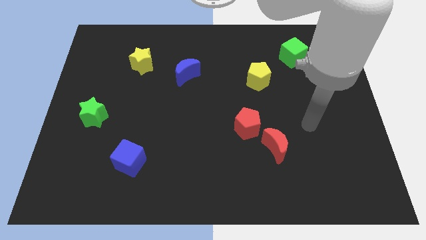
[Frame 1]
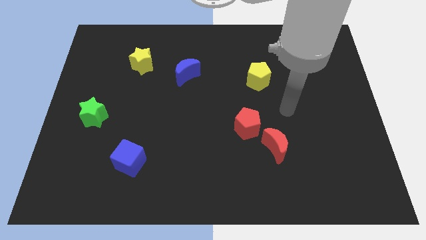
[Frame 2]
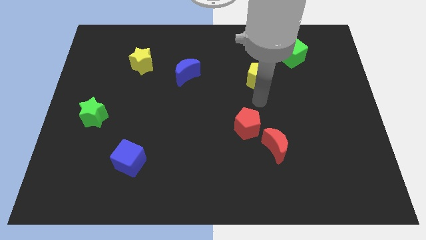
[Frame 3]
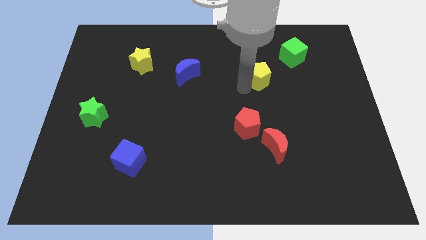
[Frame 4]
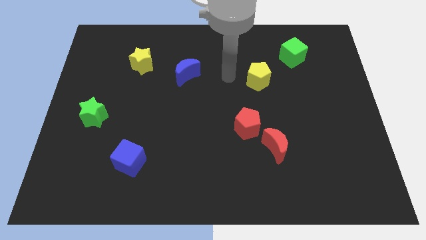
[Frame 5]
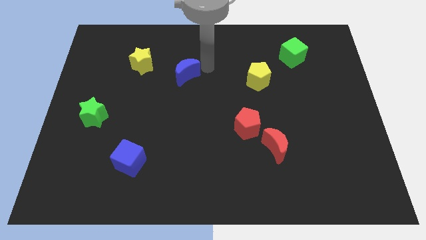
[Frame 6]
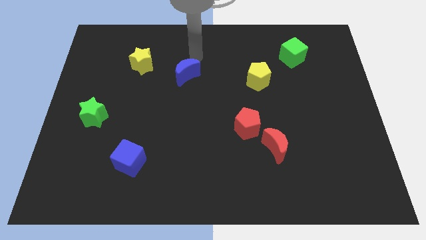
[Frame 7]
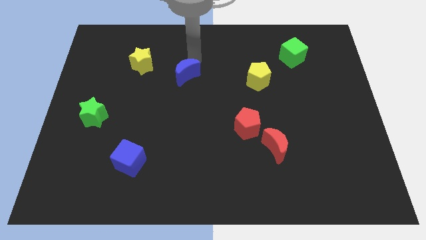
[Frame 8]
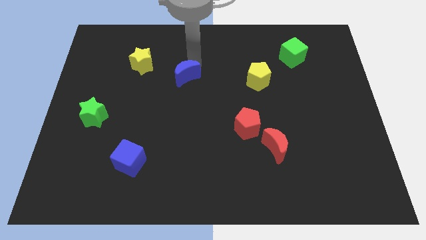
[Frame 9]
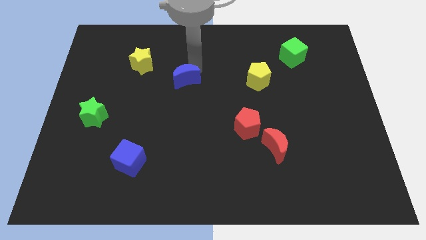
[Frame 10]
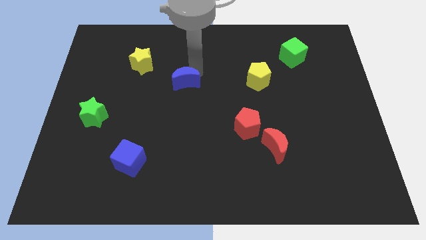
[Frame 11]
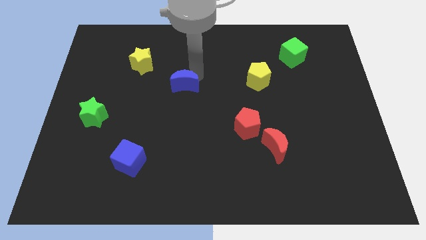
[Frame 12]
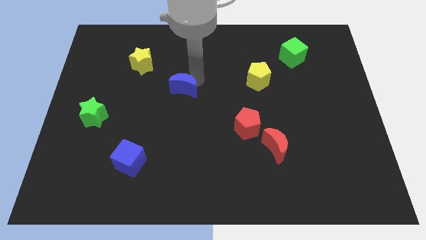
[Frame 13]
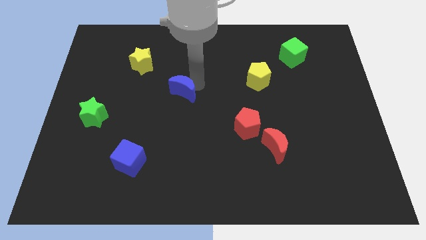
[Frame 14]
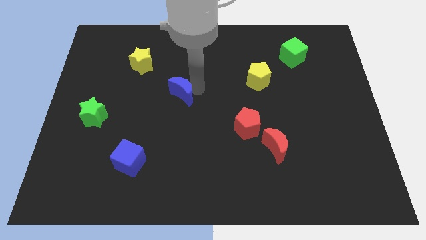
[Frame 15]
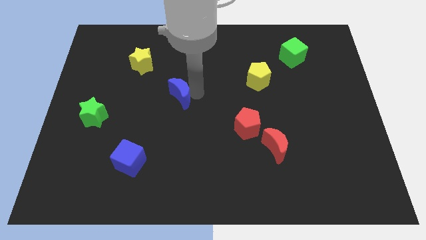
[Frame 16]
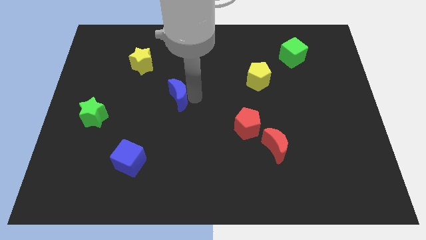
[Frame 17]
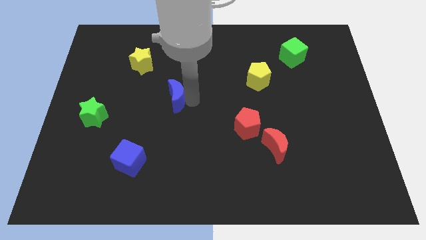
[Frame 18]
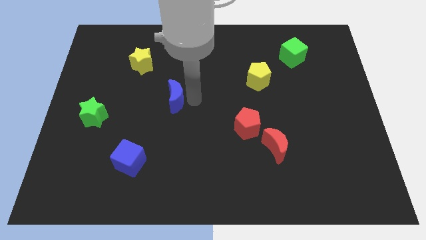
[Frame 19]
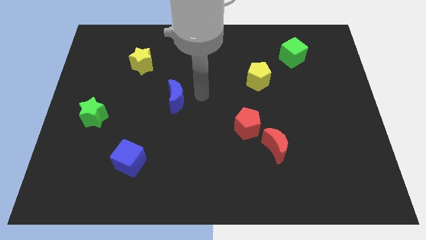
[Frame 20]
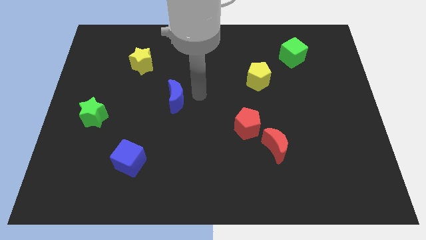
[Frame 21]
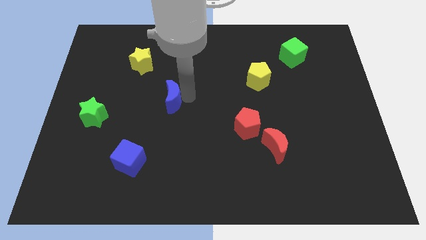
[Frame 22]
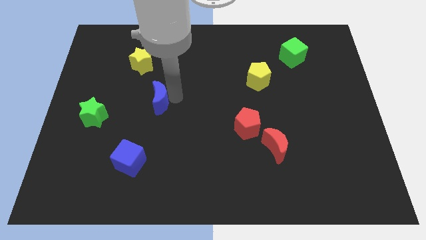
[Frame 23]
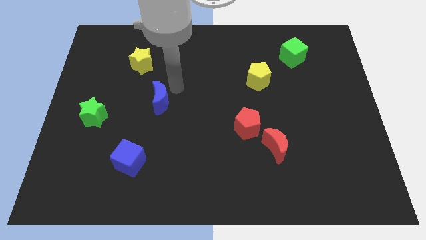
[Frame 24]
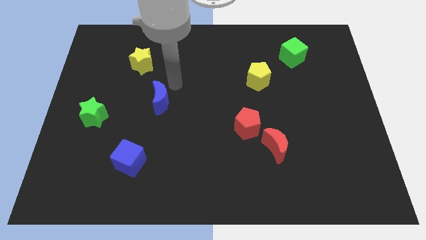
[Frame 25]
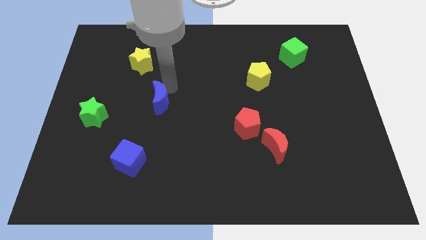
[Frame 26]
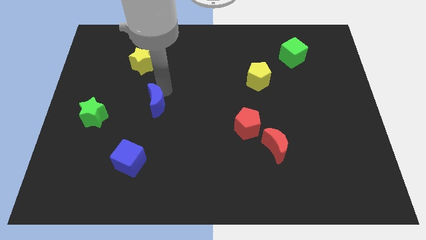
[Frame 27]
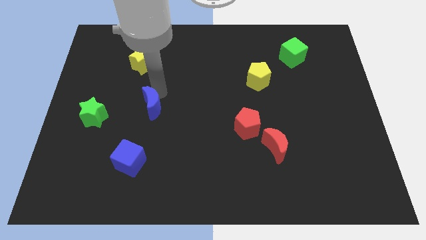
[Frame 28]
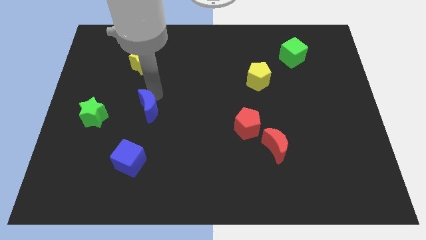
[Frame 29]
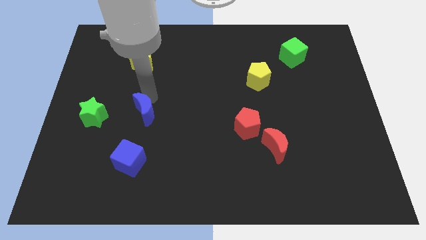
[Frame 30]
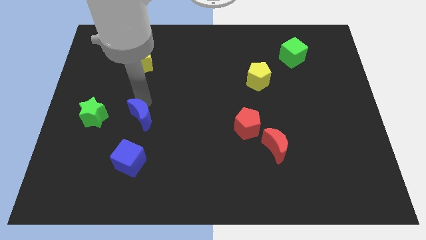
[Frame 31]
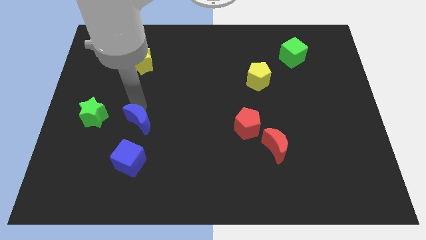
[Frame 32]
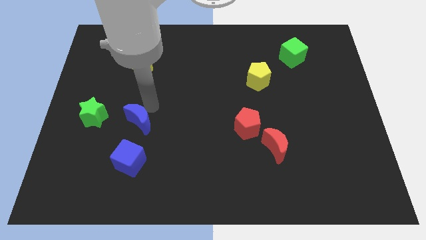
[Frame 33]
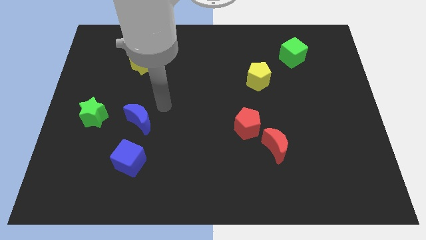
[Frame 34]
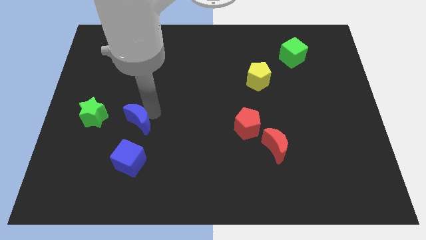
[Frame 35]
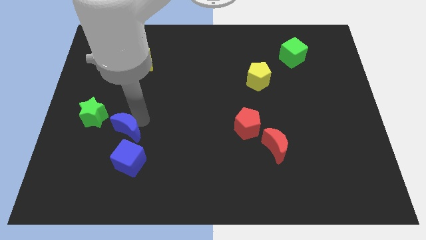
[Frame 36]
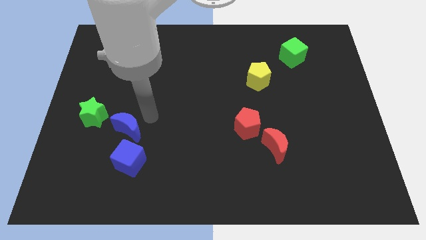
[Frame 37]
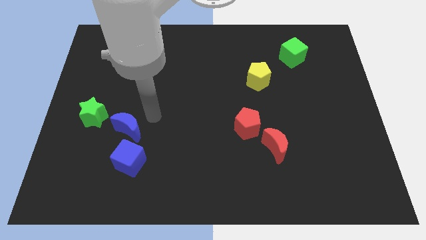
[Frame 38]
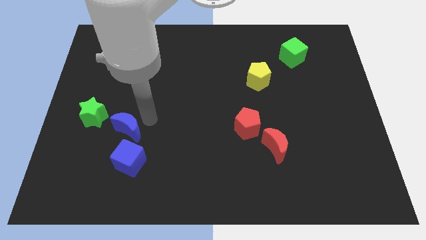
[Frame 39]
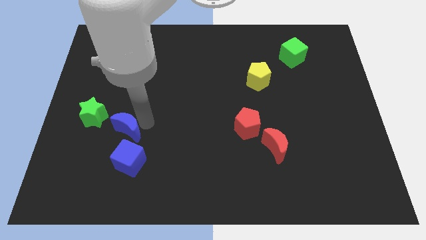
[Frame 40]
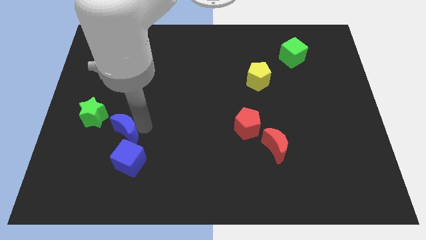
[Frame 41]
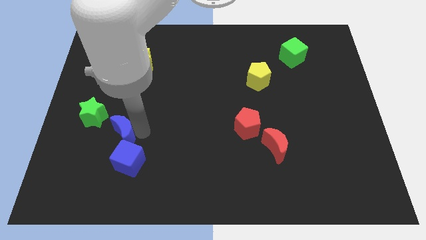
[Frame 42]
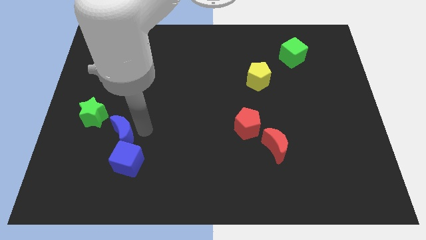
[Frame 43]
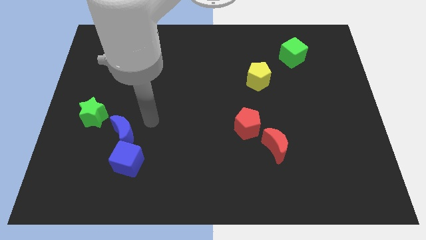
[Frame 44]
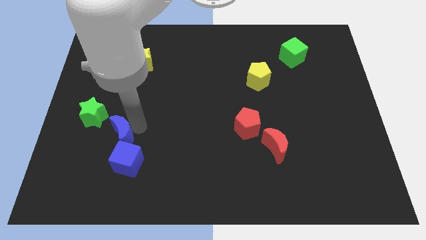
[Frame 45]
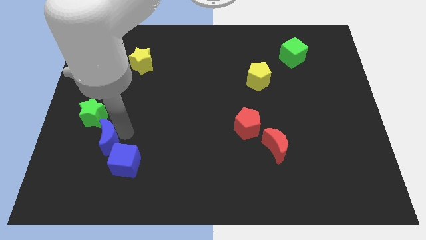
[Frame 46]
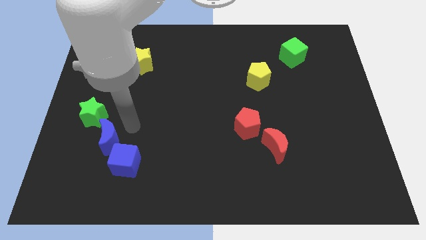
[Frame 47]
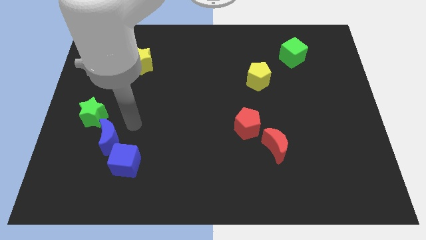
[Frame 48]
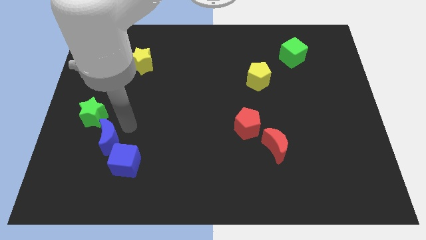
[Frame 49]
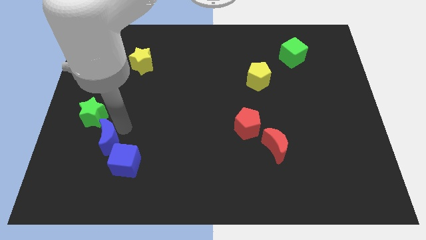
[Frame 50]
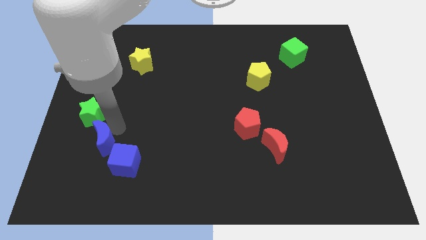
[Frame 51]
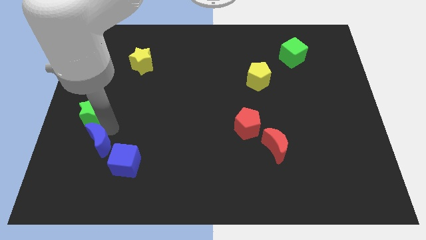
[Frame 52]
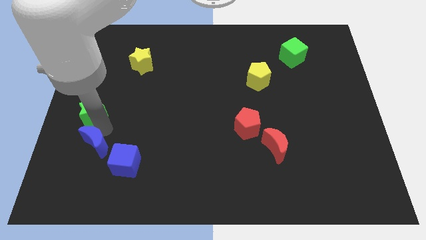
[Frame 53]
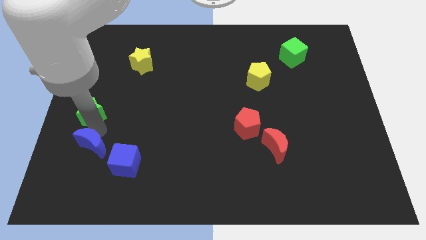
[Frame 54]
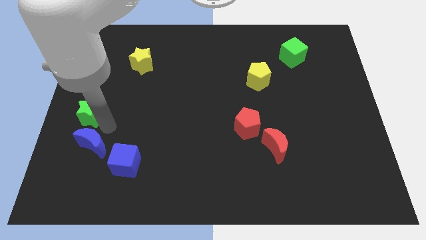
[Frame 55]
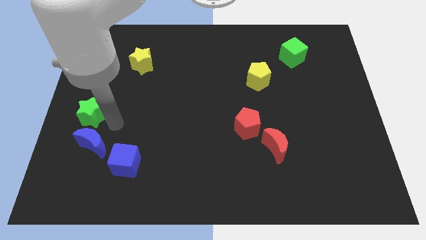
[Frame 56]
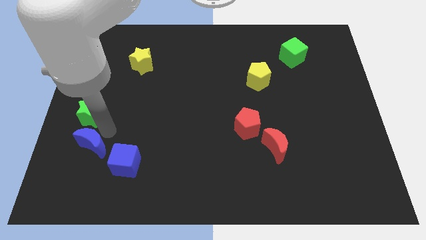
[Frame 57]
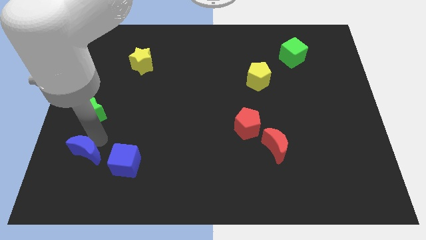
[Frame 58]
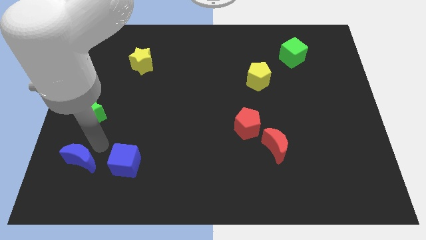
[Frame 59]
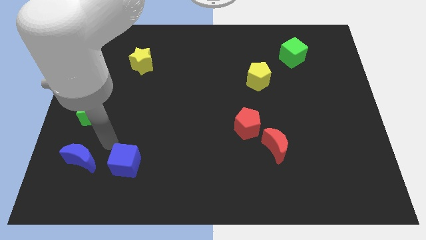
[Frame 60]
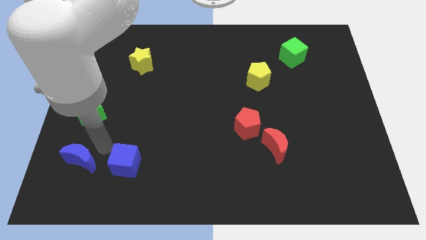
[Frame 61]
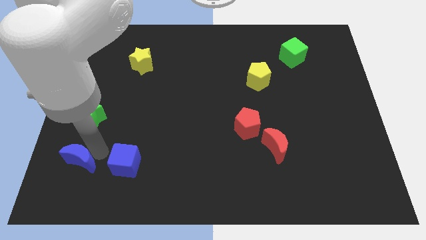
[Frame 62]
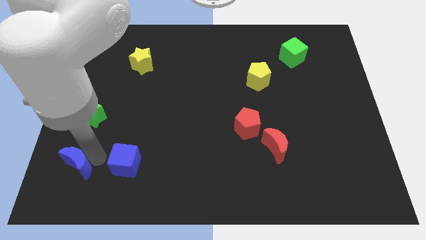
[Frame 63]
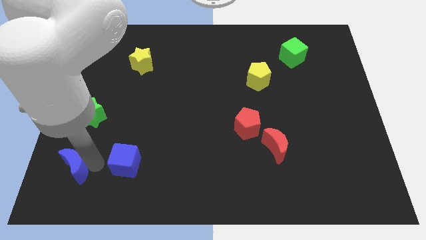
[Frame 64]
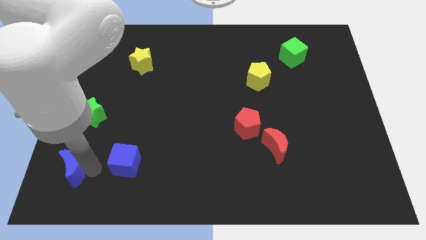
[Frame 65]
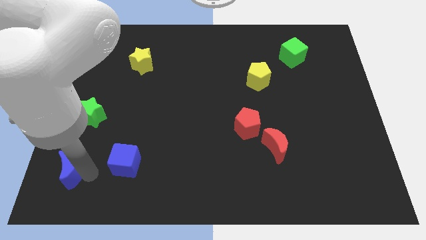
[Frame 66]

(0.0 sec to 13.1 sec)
push the blue moon to the lower left corner

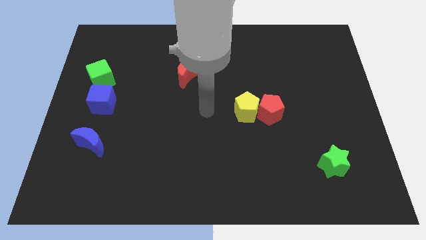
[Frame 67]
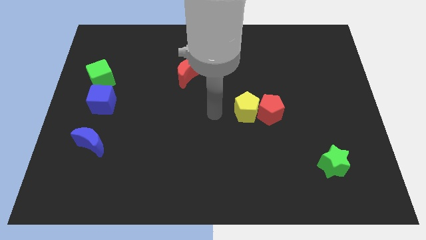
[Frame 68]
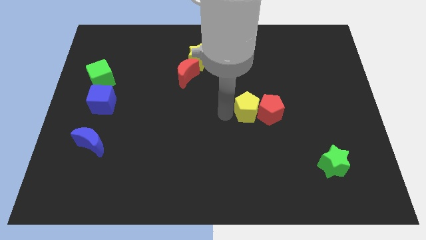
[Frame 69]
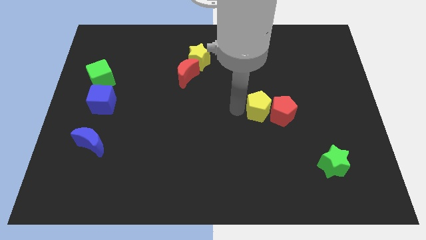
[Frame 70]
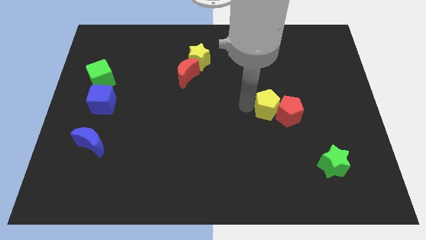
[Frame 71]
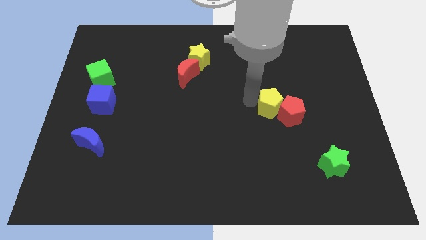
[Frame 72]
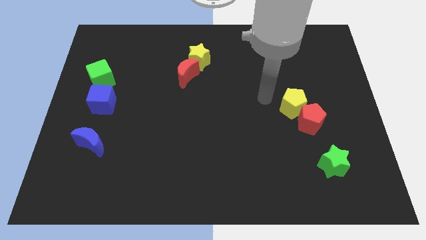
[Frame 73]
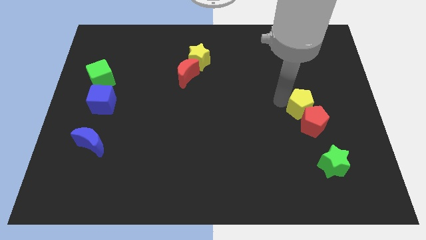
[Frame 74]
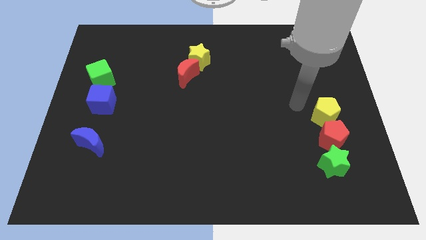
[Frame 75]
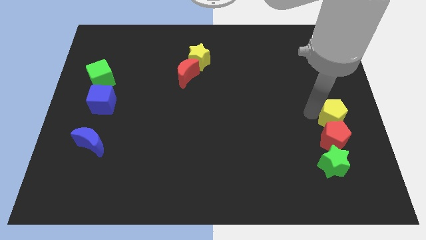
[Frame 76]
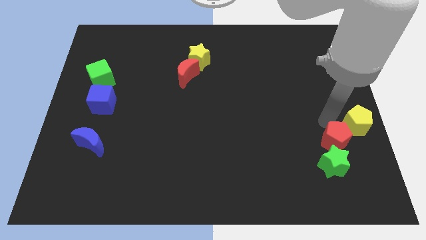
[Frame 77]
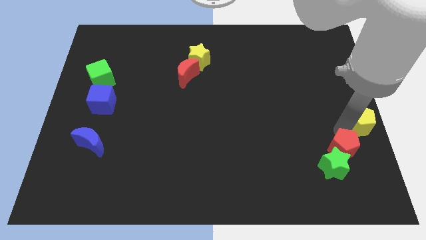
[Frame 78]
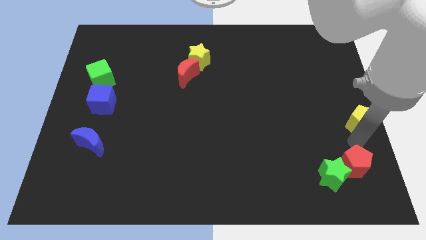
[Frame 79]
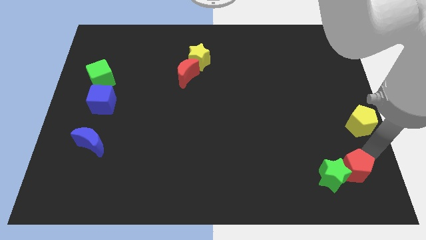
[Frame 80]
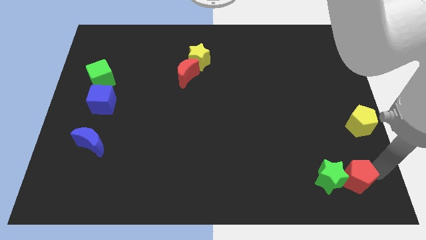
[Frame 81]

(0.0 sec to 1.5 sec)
slide the red pentagon to the bottom right corner
